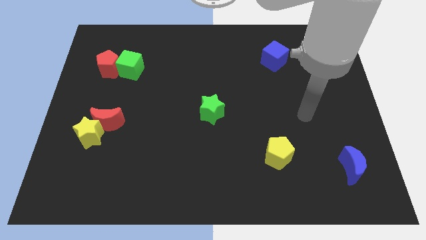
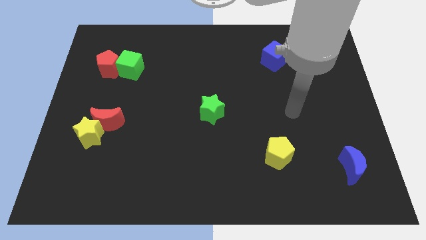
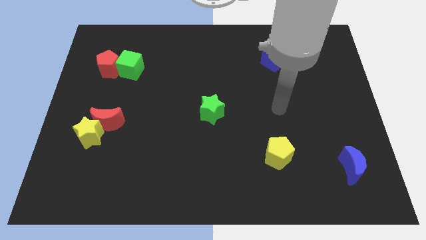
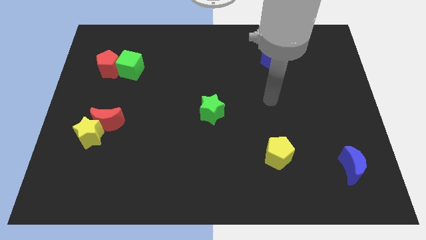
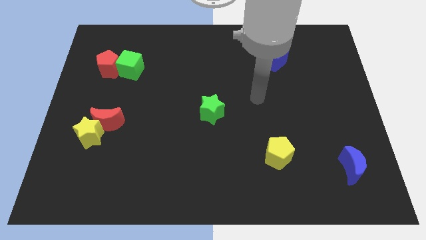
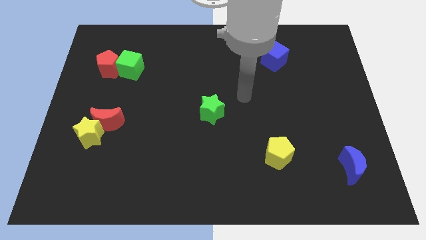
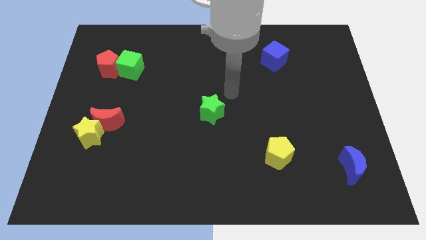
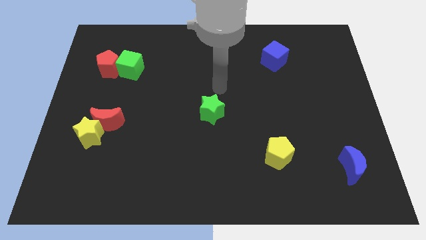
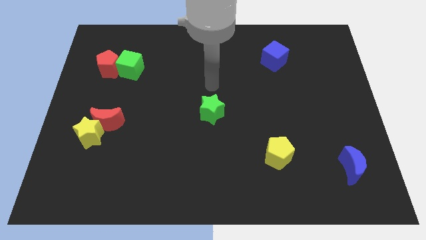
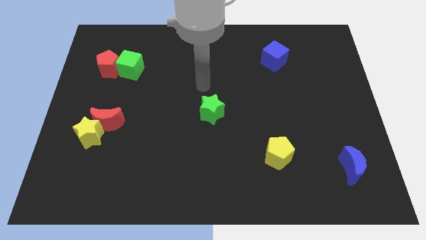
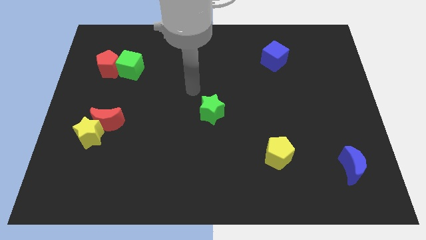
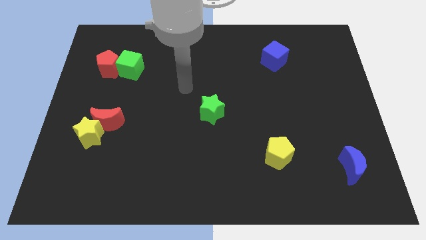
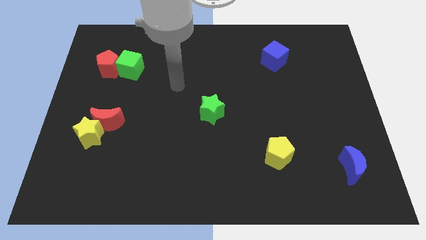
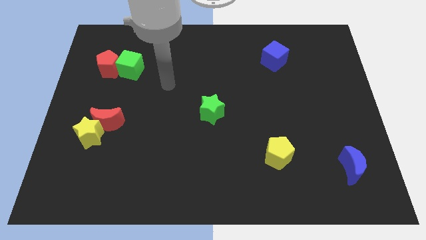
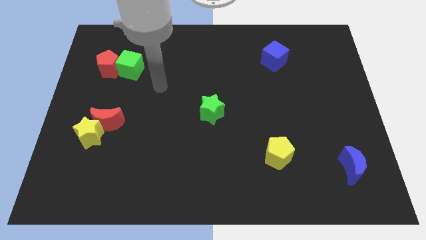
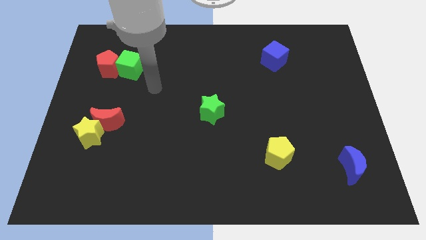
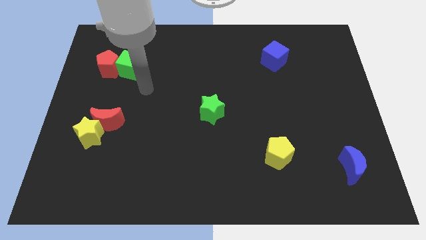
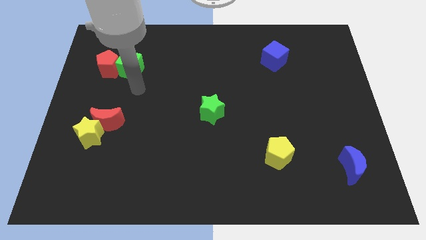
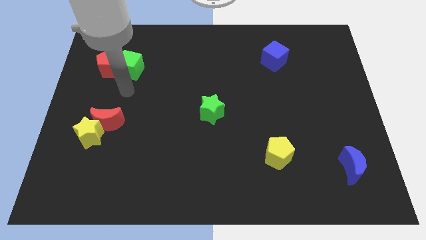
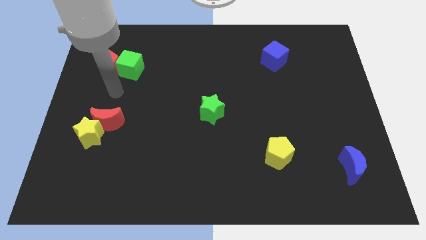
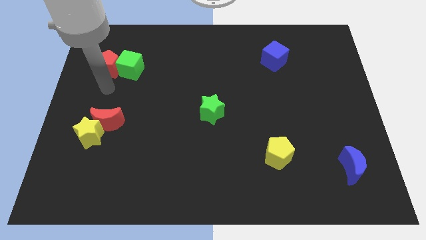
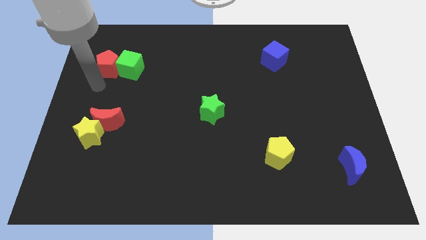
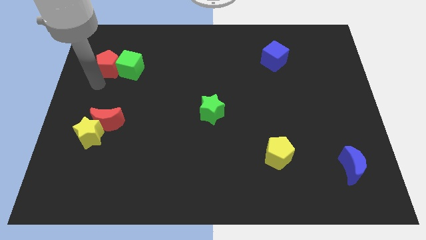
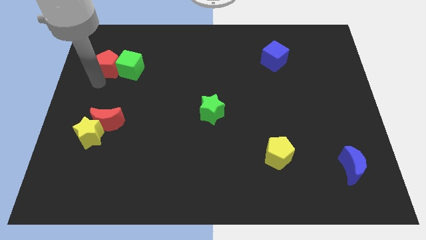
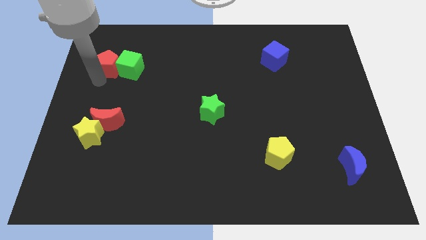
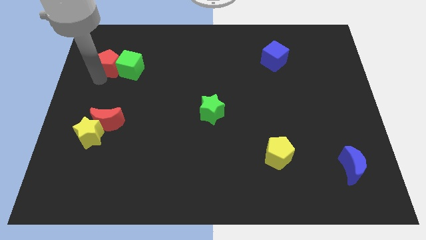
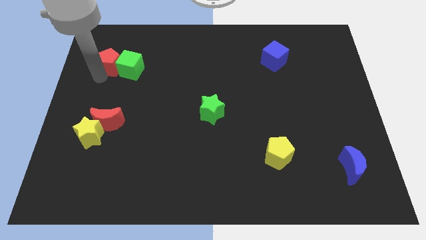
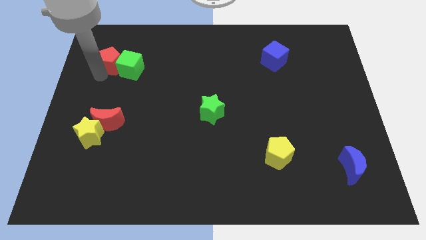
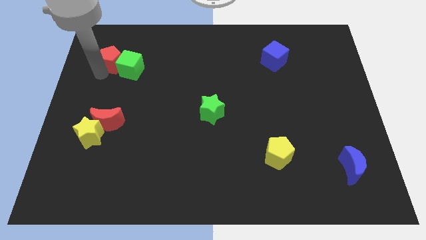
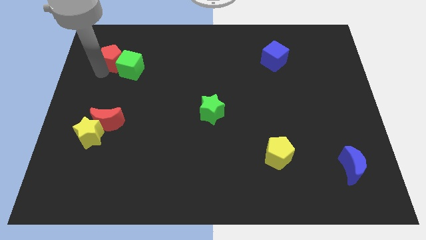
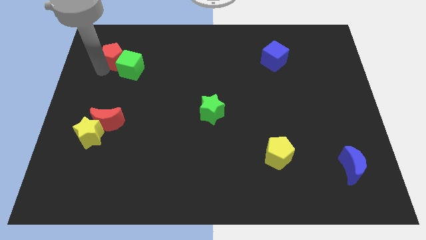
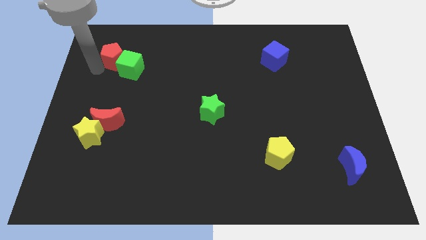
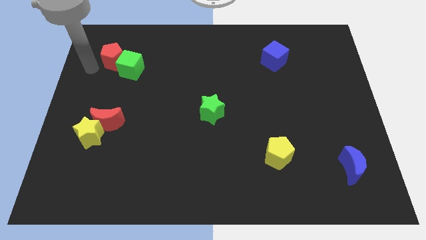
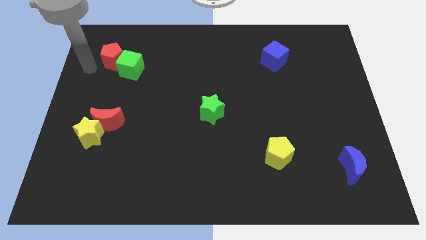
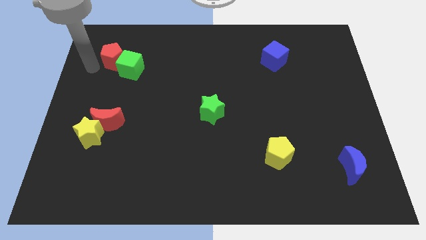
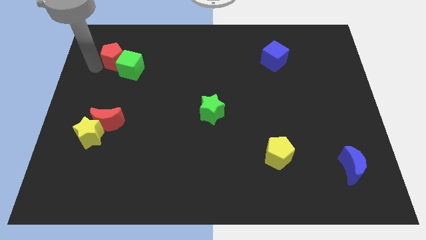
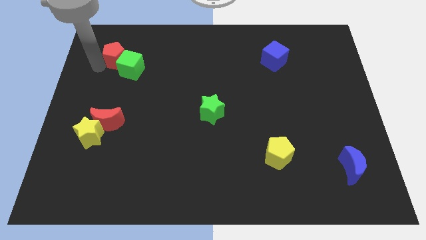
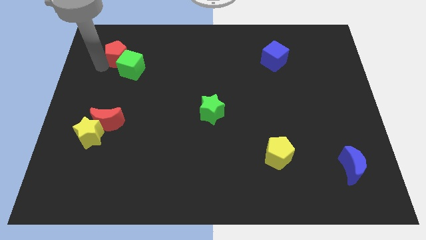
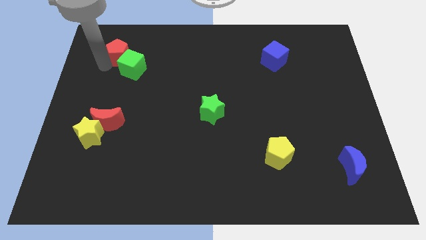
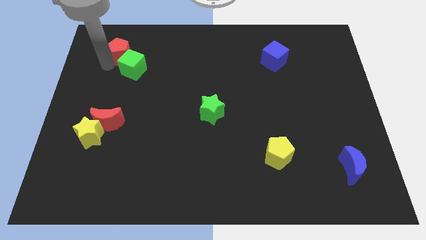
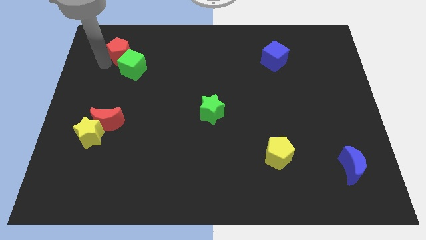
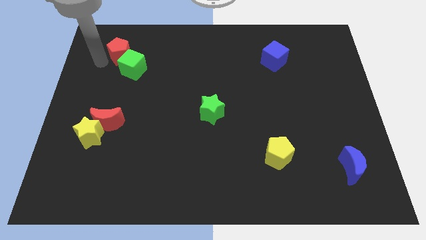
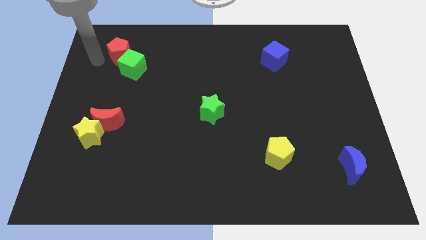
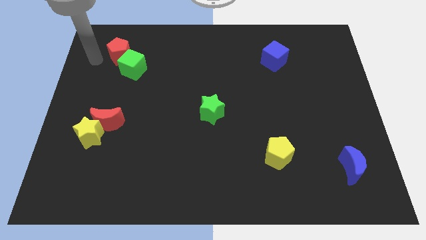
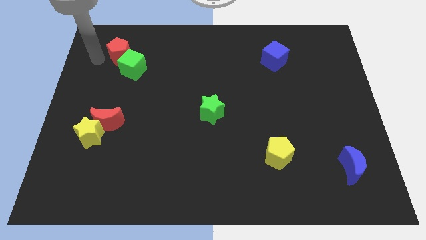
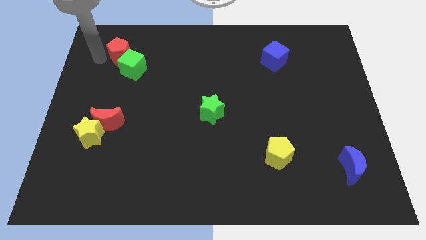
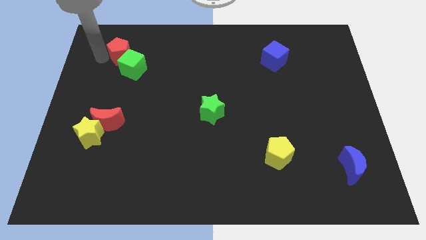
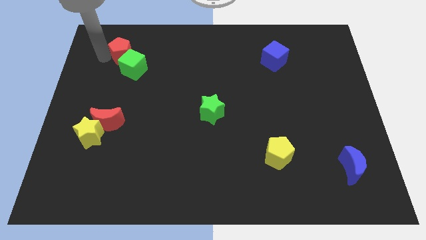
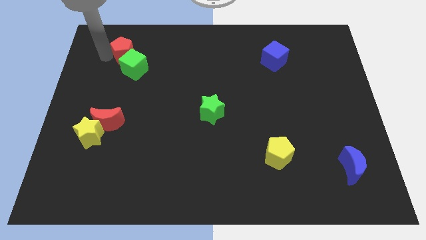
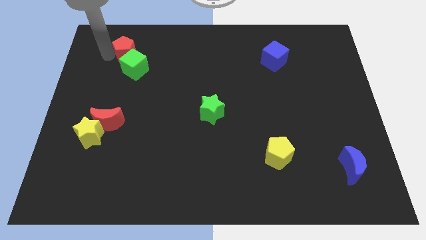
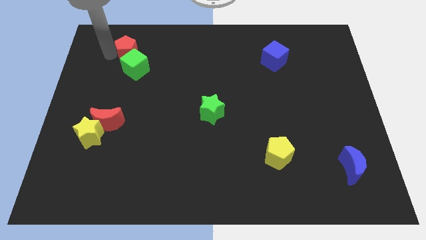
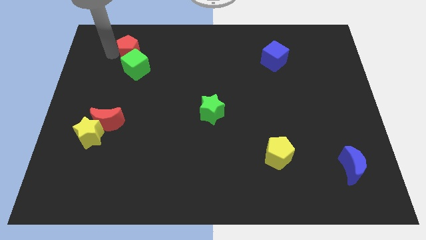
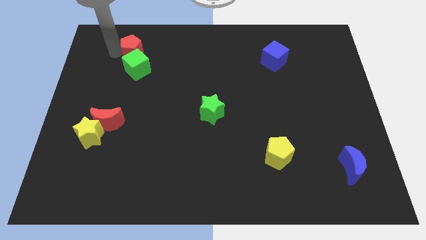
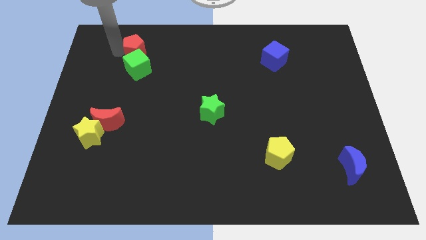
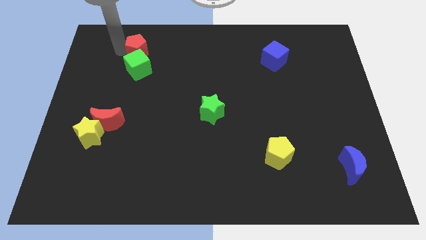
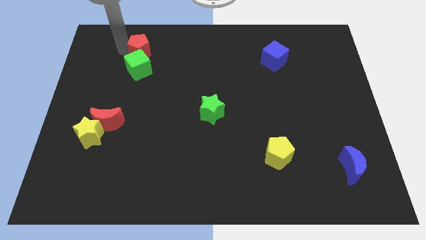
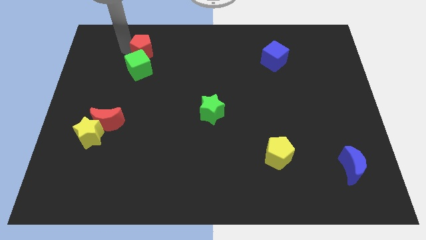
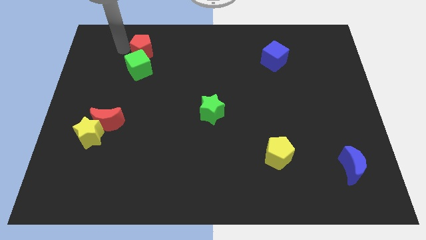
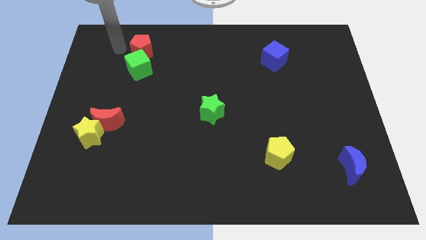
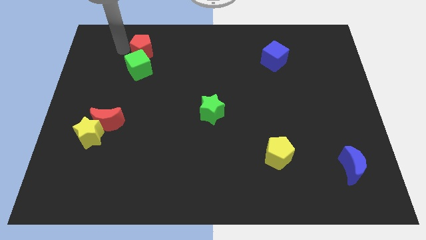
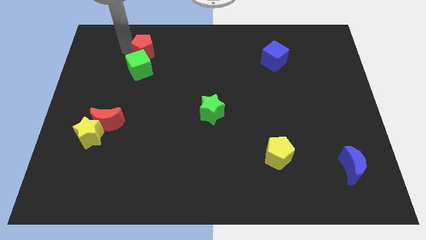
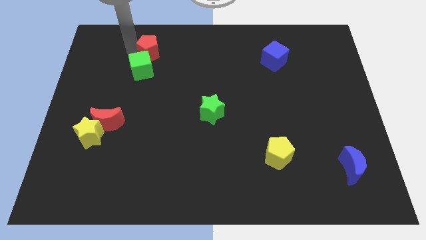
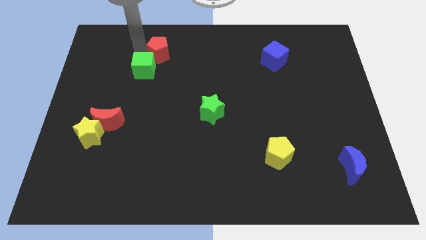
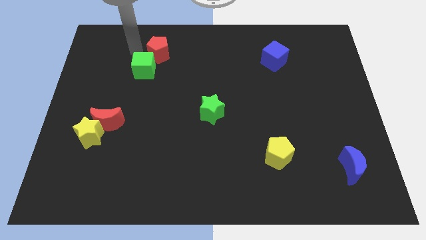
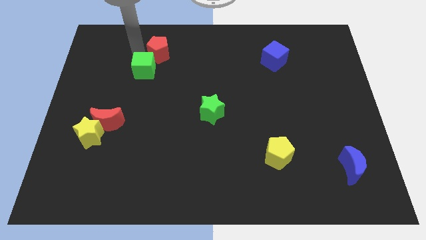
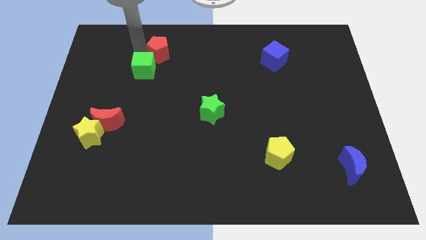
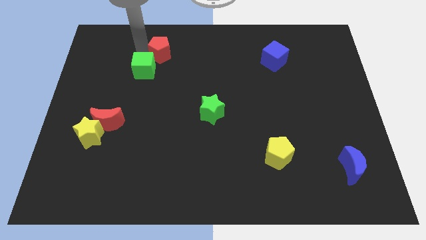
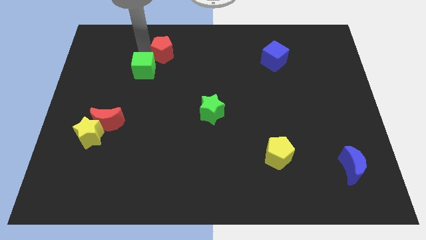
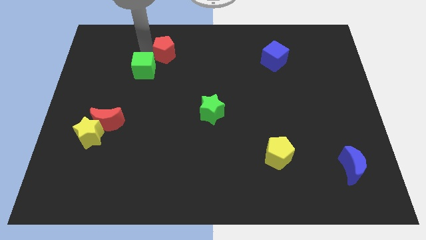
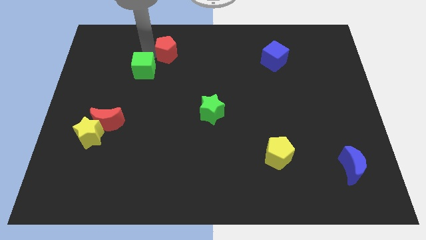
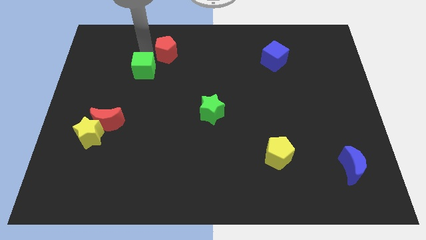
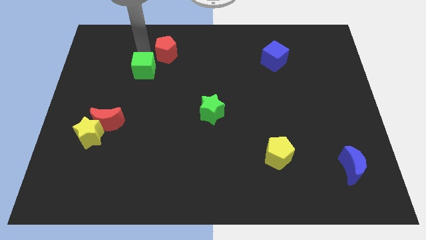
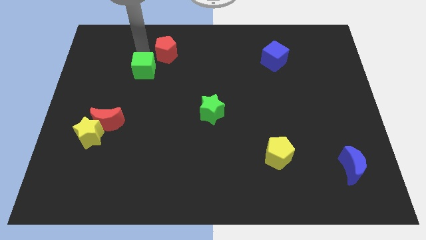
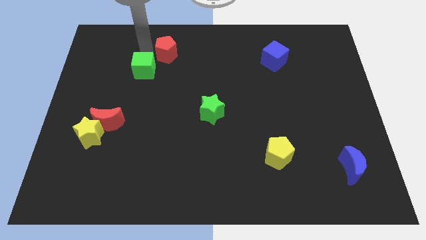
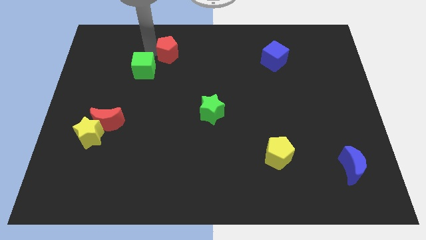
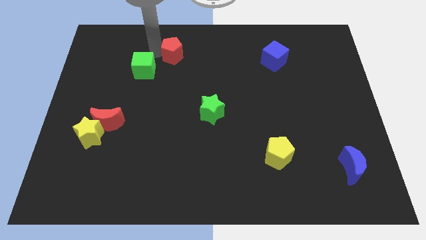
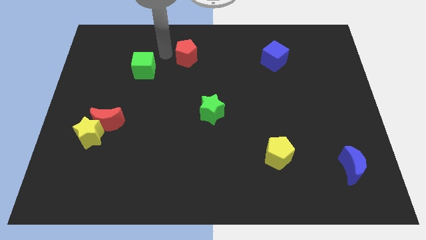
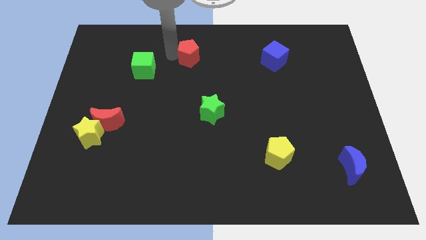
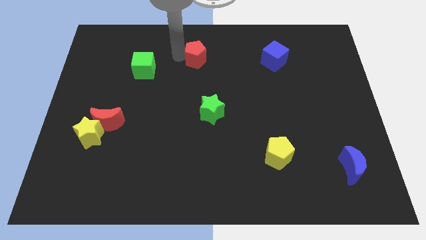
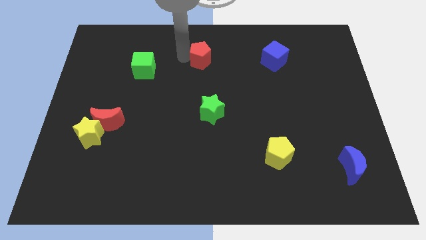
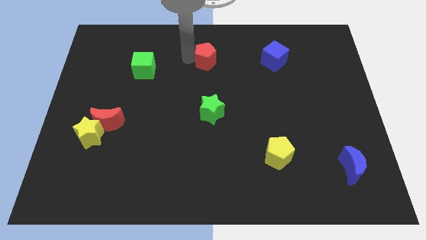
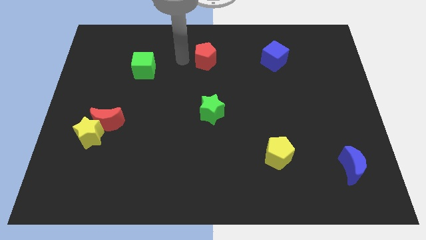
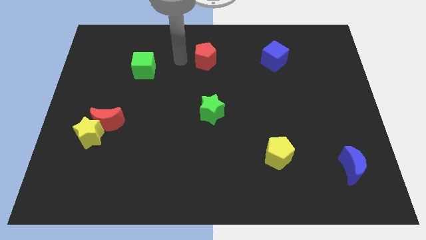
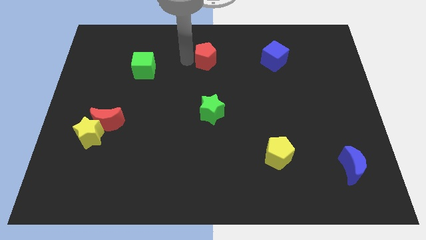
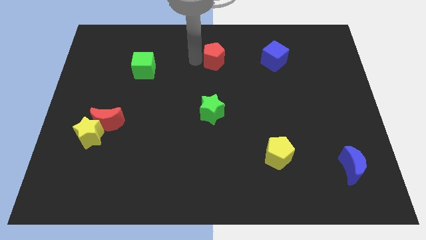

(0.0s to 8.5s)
put the red pentagon to the left of the blue cube
